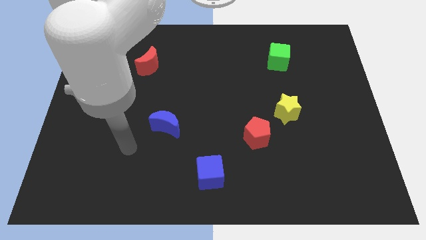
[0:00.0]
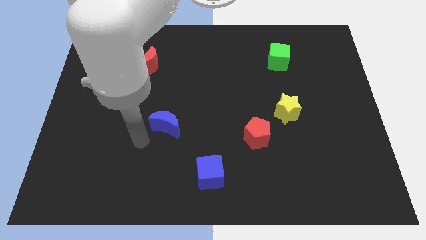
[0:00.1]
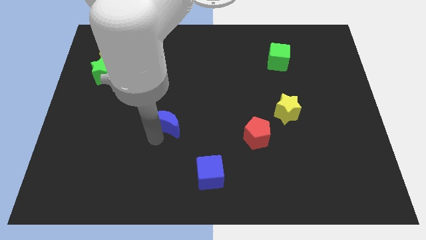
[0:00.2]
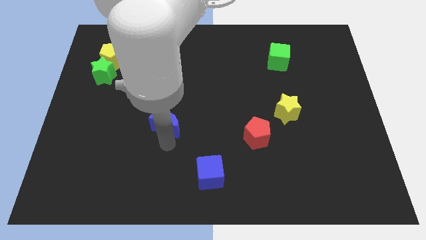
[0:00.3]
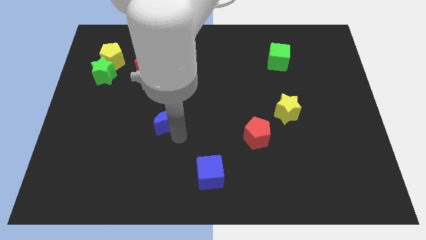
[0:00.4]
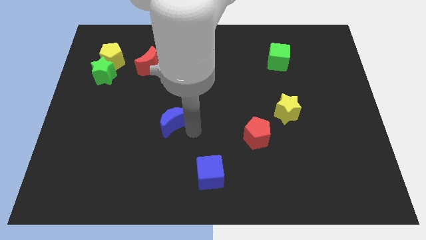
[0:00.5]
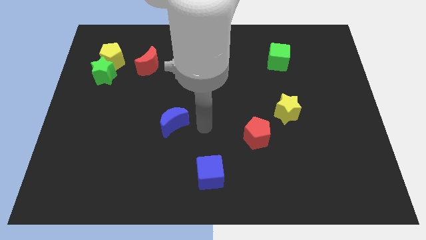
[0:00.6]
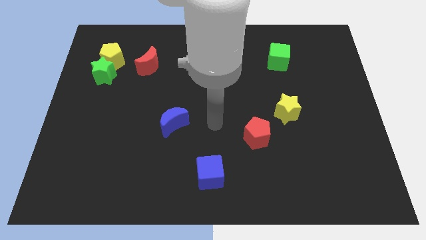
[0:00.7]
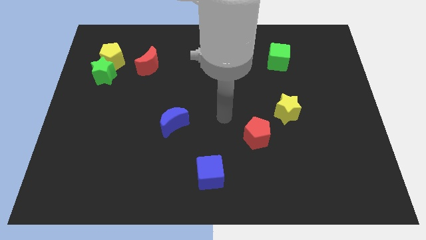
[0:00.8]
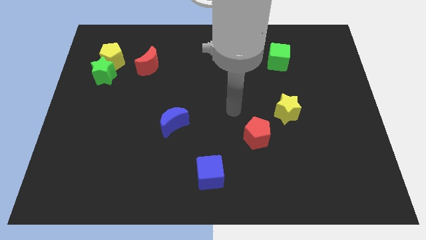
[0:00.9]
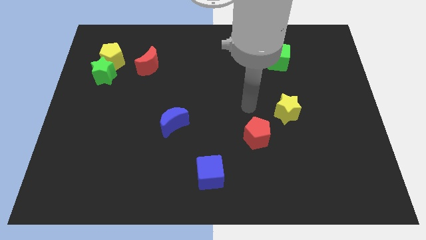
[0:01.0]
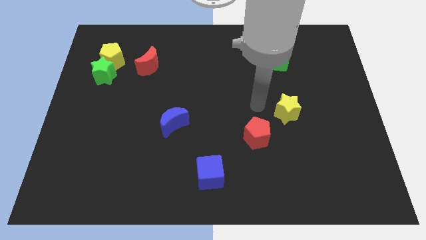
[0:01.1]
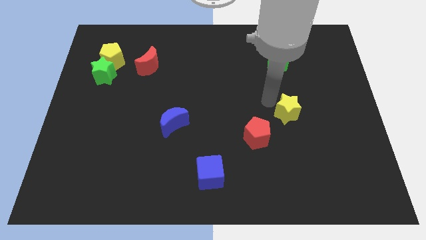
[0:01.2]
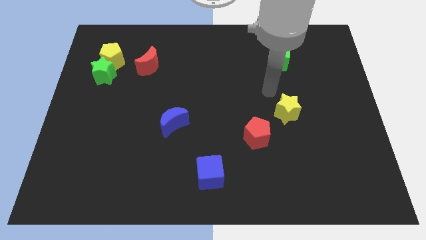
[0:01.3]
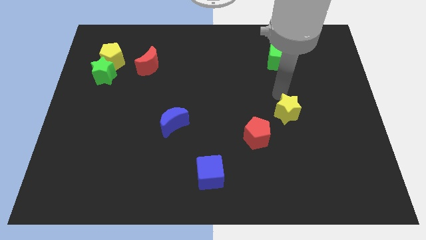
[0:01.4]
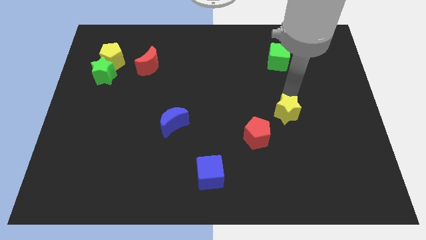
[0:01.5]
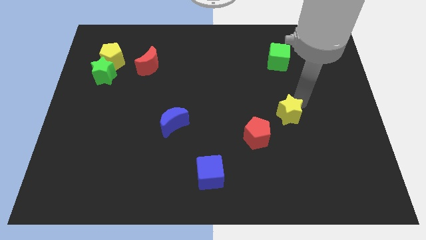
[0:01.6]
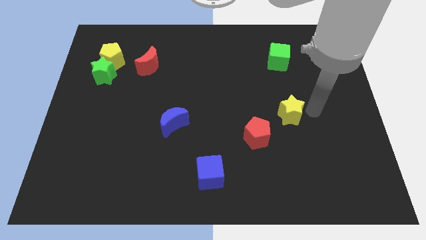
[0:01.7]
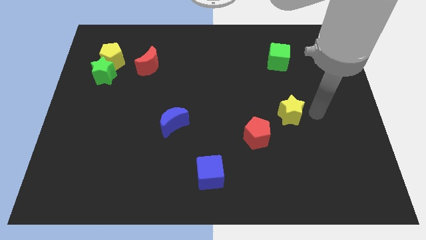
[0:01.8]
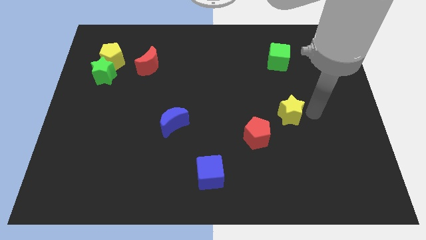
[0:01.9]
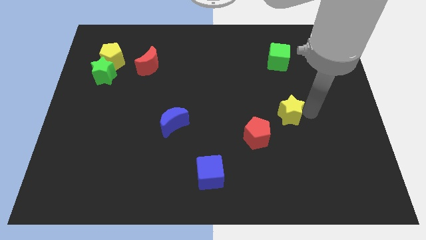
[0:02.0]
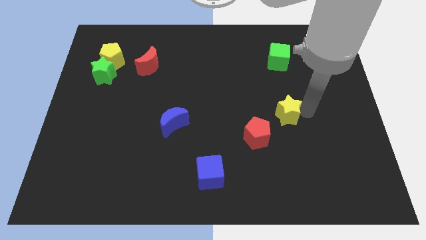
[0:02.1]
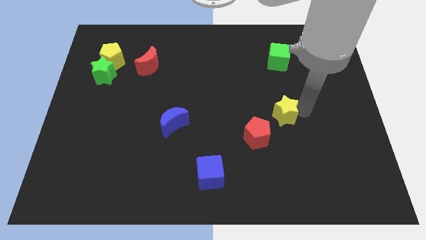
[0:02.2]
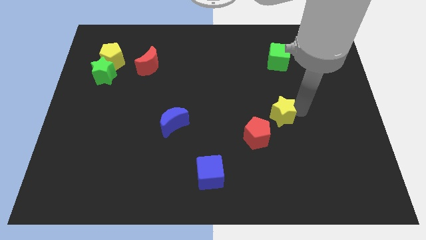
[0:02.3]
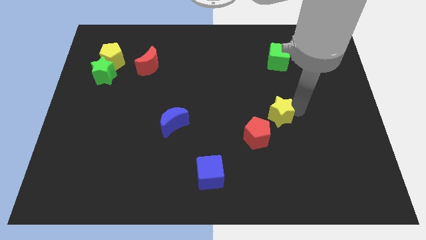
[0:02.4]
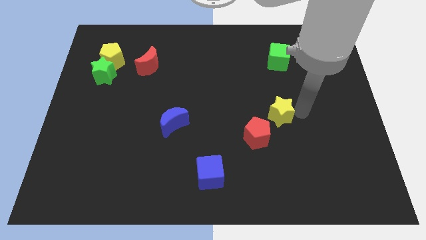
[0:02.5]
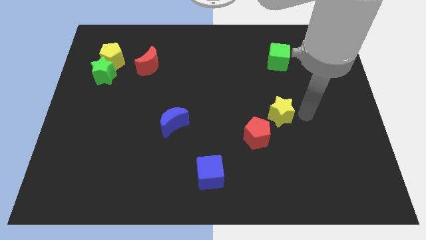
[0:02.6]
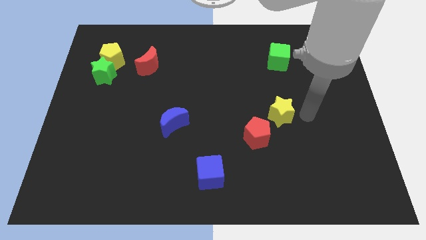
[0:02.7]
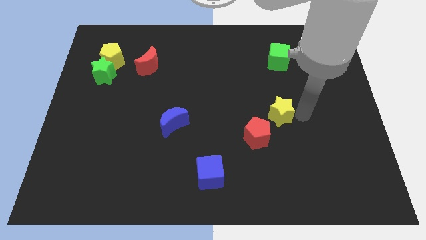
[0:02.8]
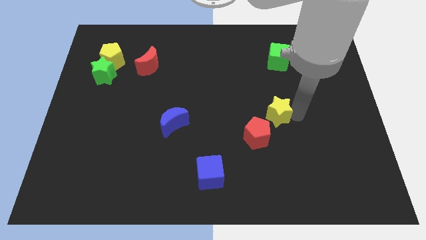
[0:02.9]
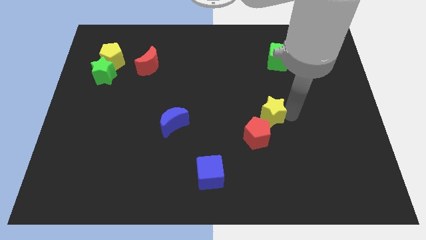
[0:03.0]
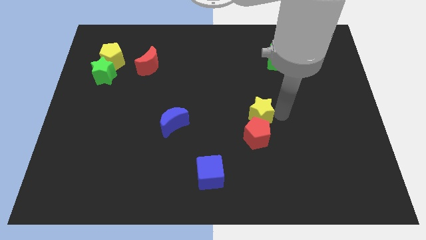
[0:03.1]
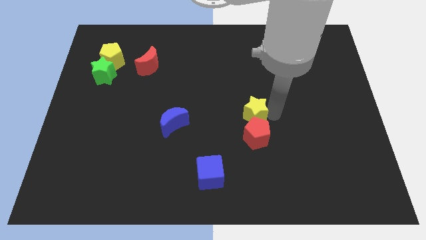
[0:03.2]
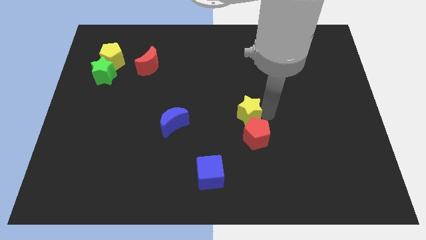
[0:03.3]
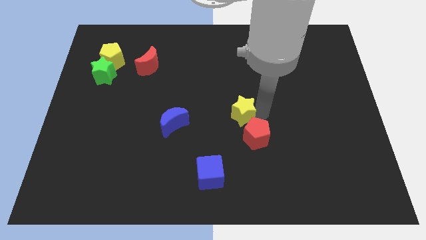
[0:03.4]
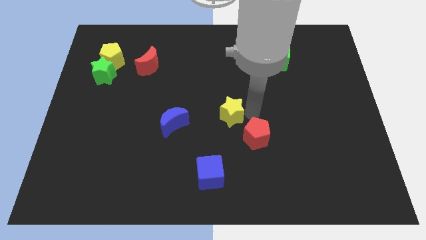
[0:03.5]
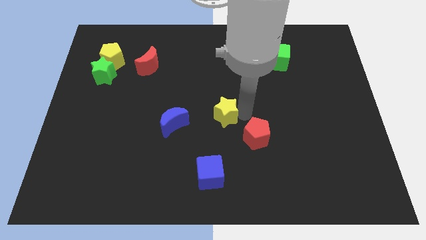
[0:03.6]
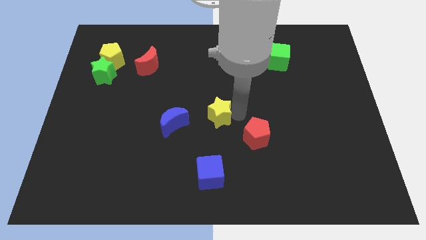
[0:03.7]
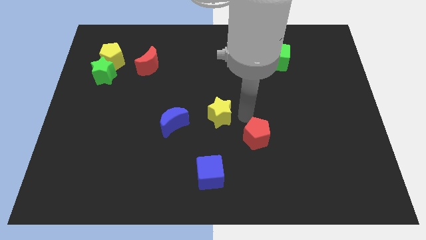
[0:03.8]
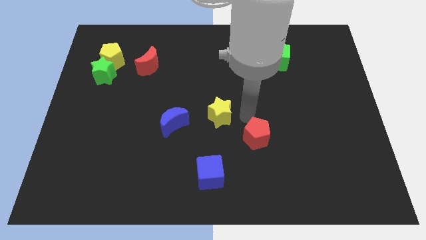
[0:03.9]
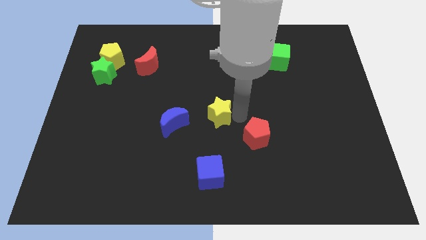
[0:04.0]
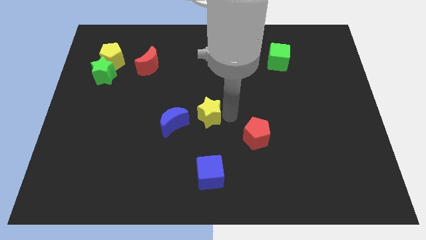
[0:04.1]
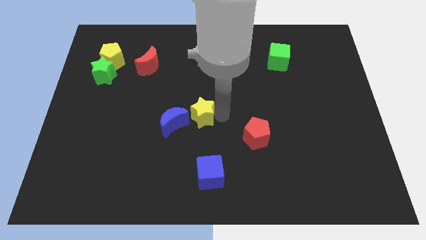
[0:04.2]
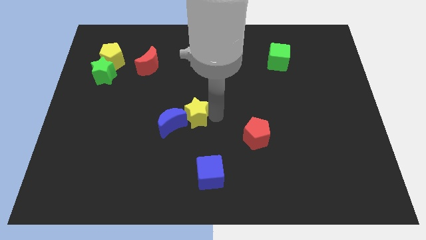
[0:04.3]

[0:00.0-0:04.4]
move the yellow star to the left

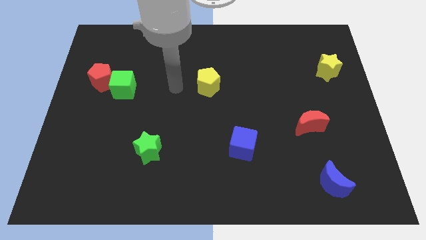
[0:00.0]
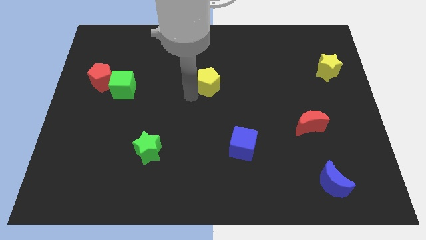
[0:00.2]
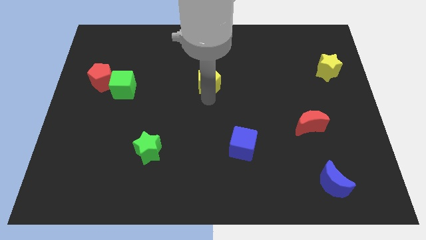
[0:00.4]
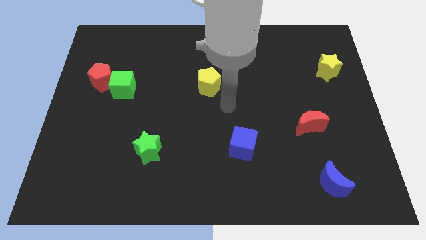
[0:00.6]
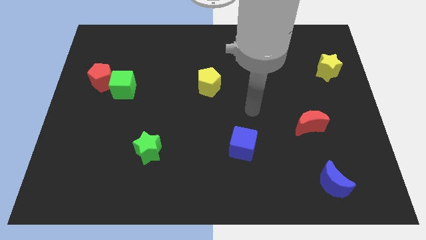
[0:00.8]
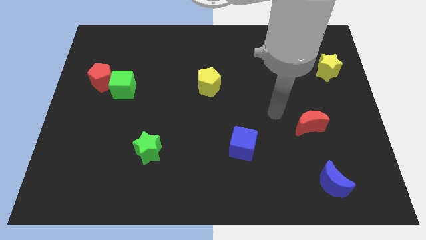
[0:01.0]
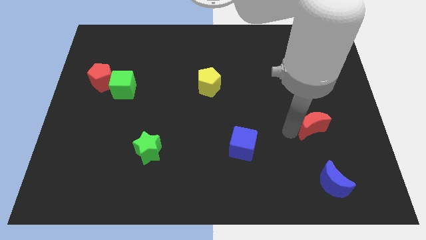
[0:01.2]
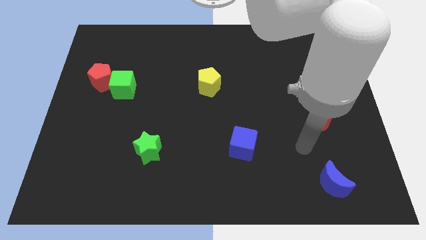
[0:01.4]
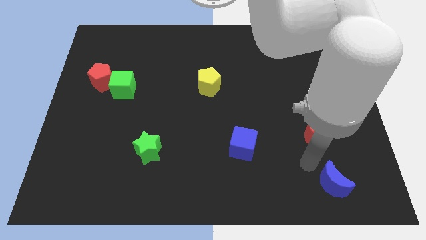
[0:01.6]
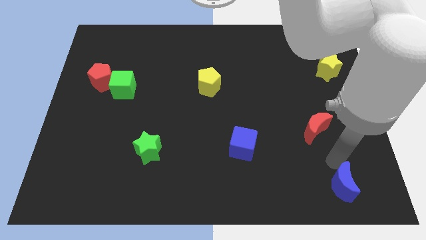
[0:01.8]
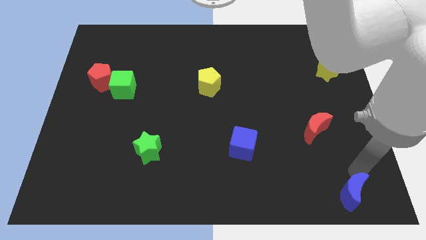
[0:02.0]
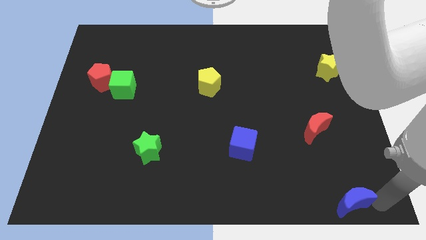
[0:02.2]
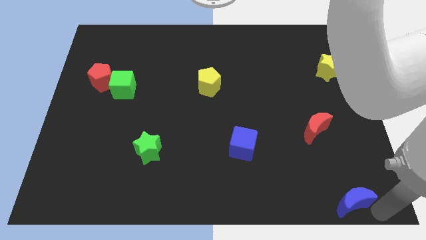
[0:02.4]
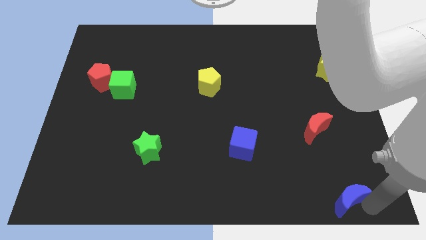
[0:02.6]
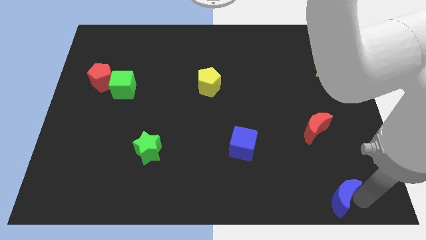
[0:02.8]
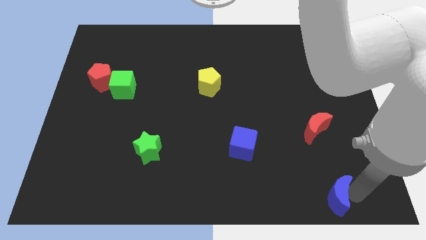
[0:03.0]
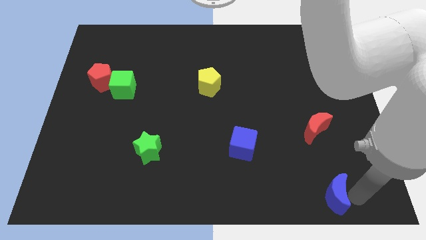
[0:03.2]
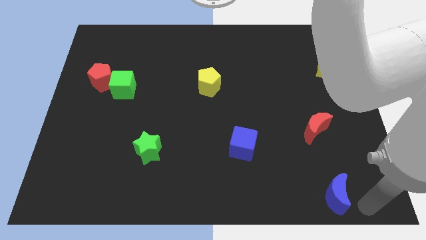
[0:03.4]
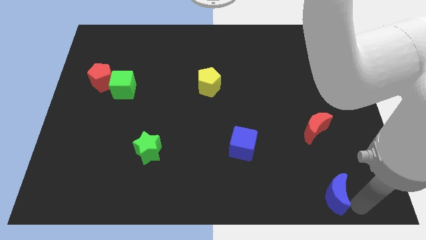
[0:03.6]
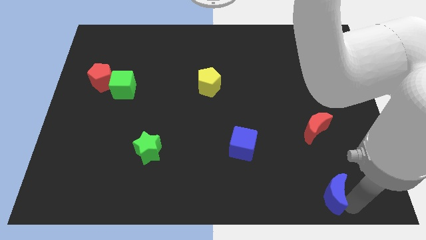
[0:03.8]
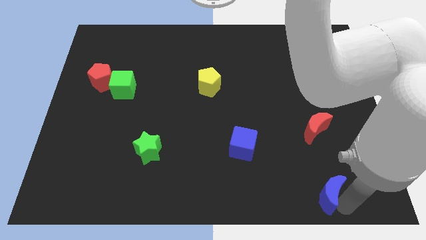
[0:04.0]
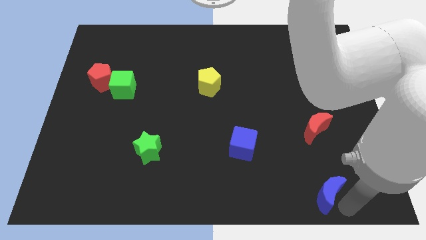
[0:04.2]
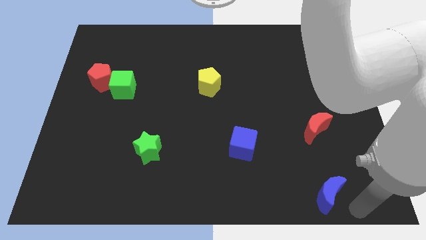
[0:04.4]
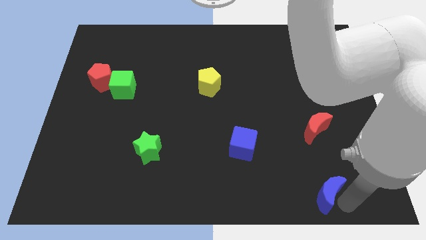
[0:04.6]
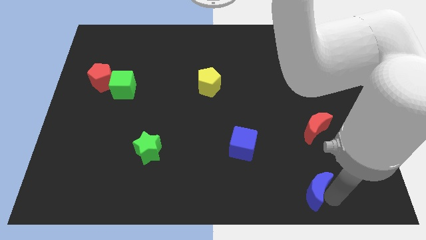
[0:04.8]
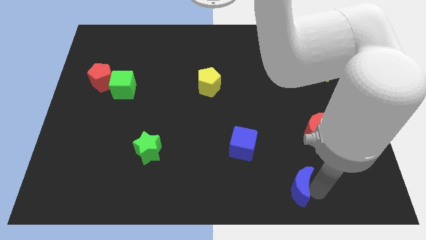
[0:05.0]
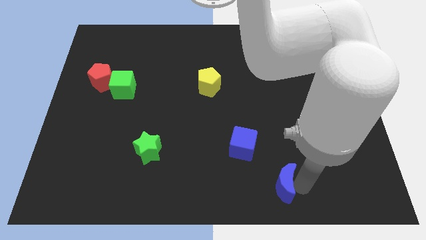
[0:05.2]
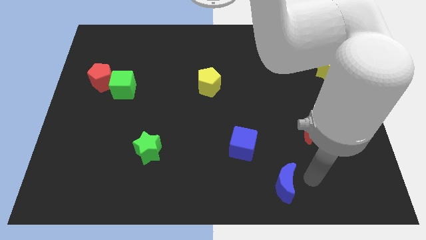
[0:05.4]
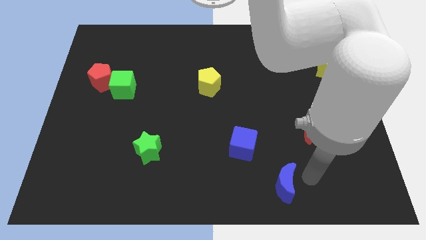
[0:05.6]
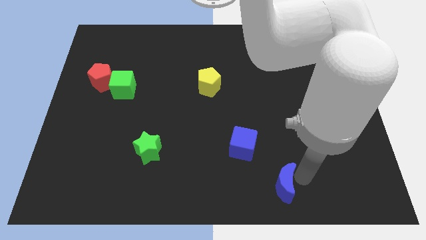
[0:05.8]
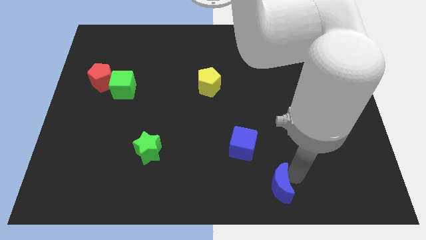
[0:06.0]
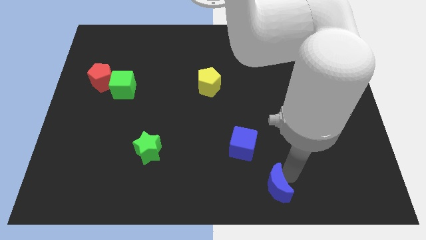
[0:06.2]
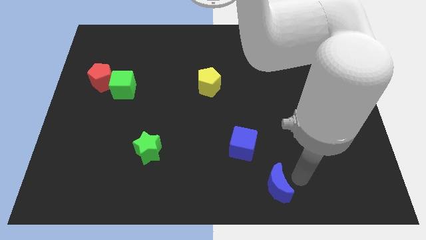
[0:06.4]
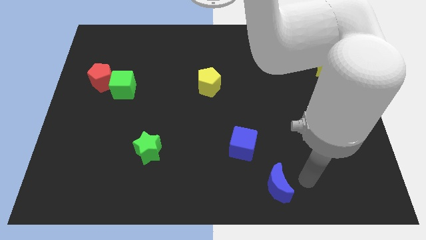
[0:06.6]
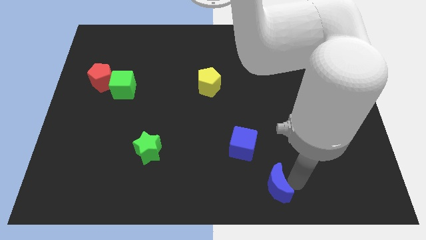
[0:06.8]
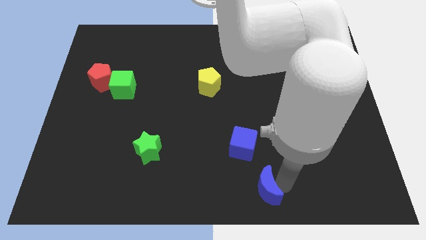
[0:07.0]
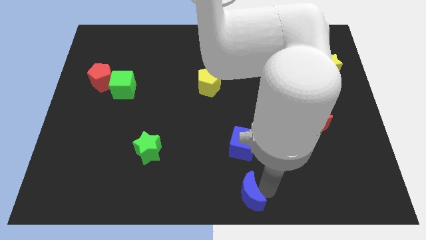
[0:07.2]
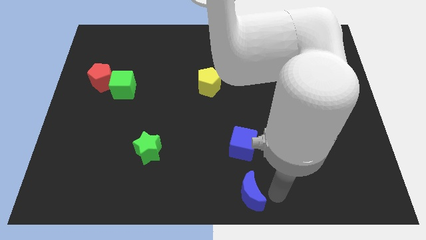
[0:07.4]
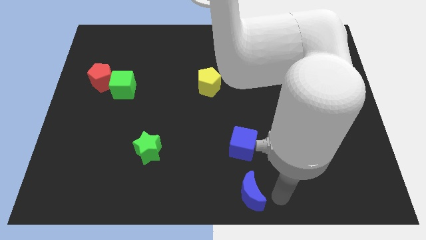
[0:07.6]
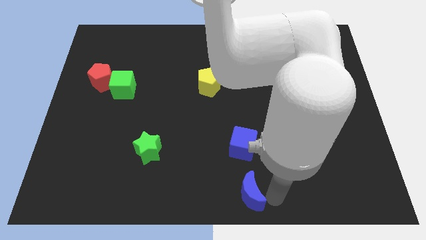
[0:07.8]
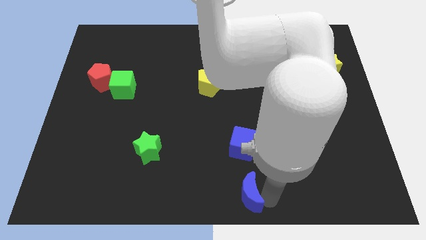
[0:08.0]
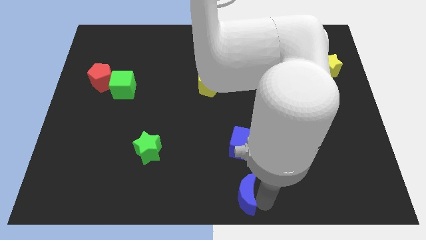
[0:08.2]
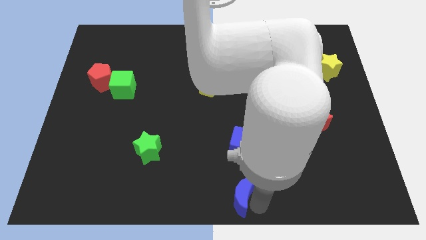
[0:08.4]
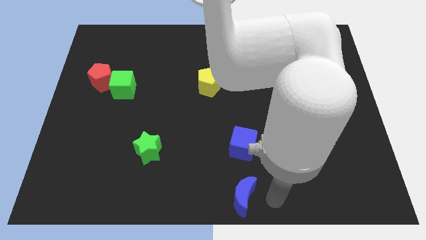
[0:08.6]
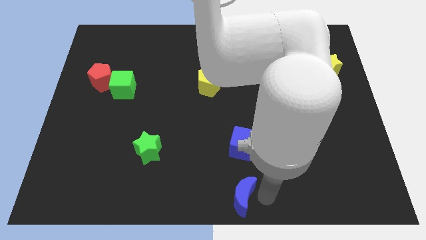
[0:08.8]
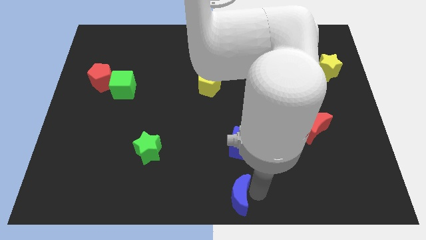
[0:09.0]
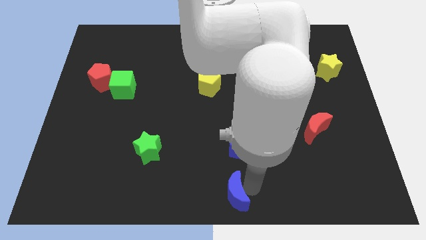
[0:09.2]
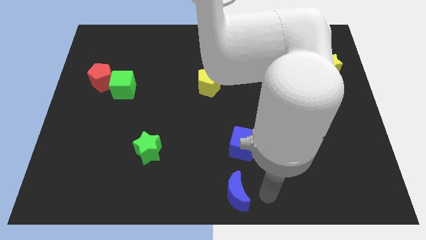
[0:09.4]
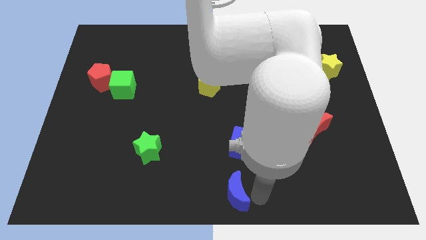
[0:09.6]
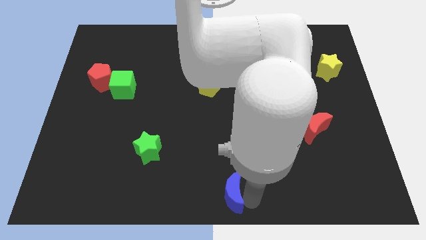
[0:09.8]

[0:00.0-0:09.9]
push the blue moon to the left
